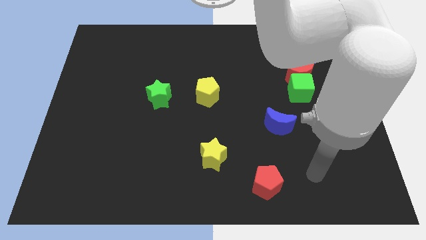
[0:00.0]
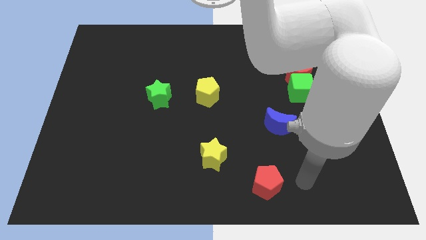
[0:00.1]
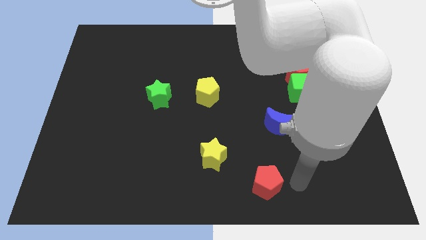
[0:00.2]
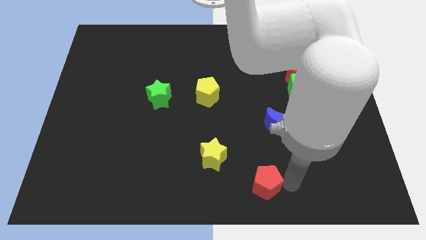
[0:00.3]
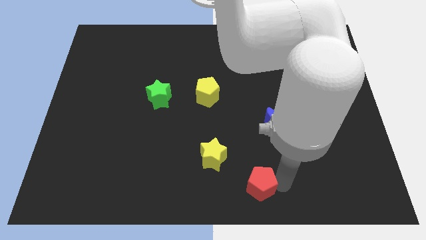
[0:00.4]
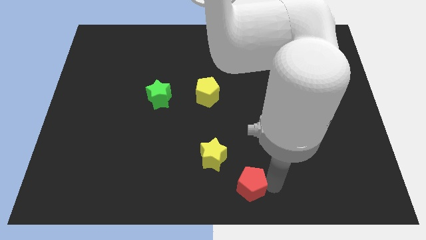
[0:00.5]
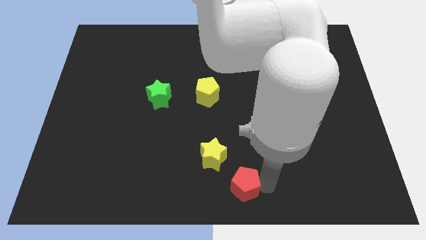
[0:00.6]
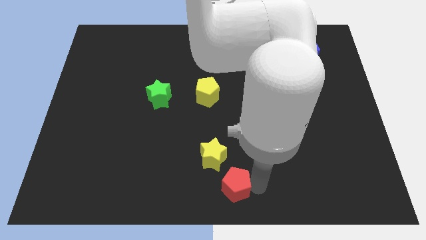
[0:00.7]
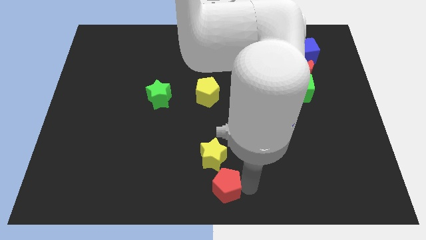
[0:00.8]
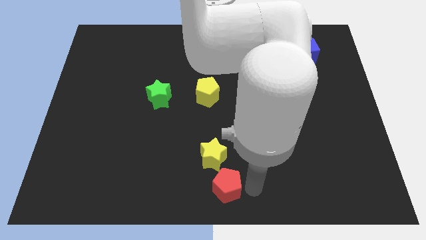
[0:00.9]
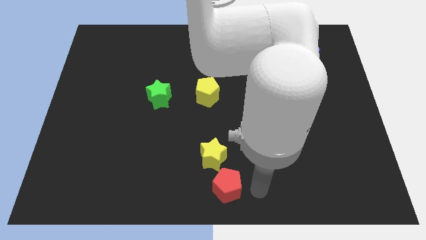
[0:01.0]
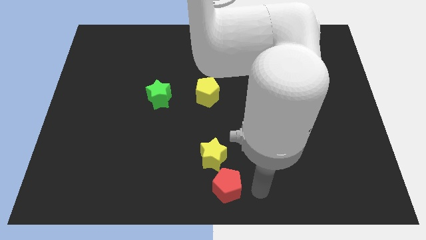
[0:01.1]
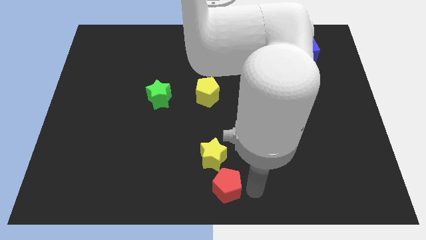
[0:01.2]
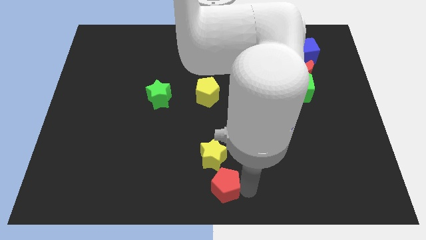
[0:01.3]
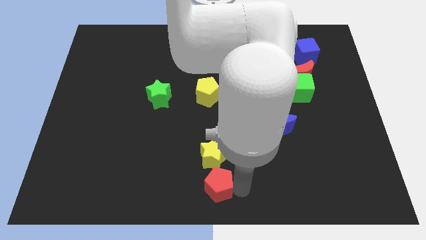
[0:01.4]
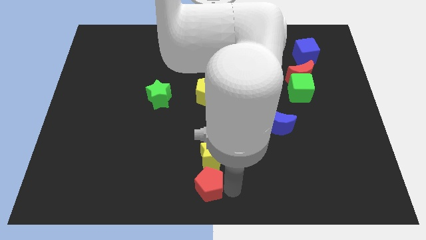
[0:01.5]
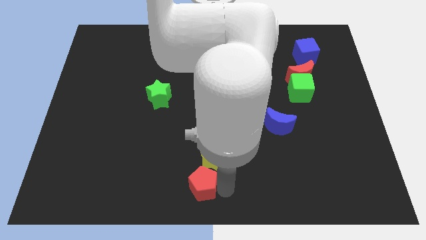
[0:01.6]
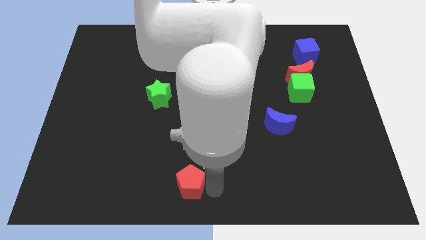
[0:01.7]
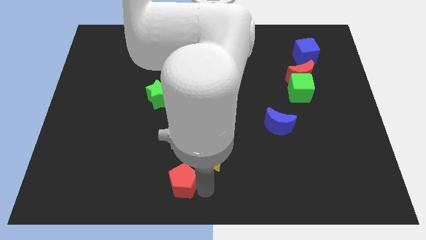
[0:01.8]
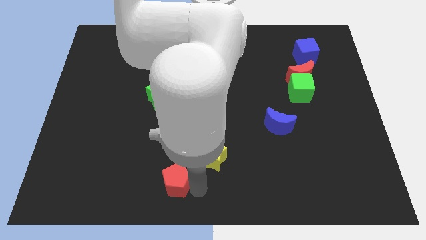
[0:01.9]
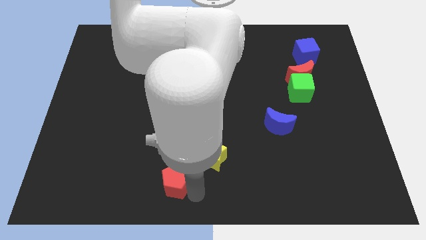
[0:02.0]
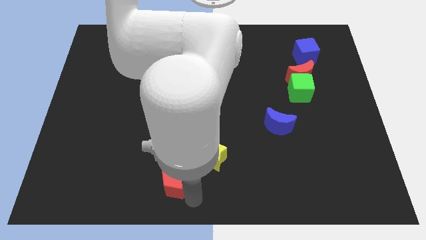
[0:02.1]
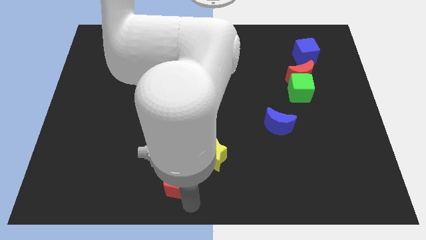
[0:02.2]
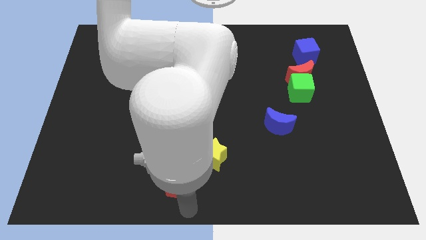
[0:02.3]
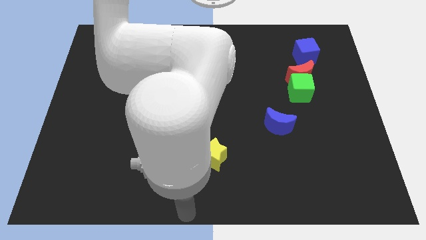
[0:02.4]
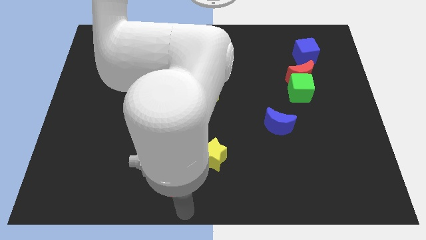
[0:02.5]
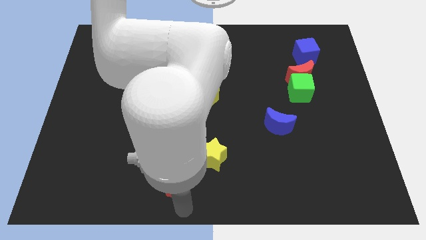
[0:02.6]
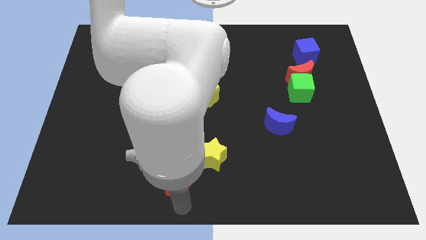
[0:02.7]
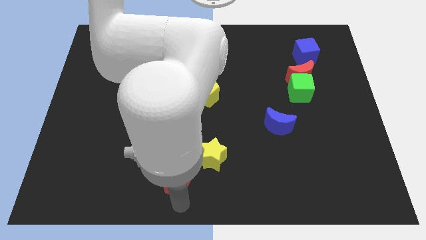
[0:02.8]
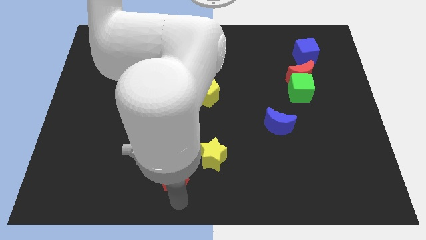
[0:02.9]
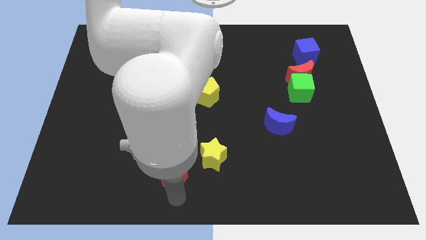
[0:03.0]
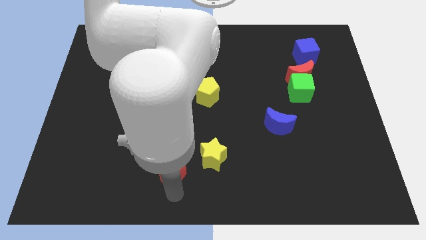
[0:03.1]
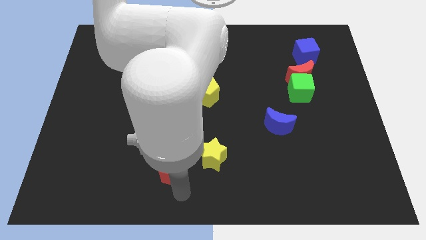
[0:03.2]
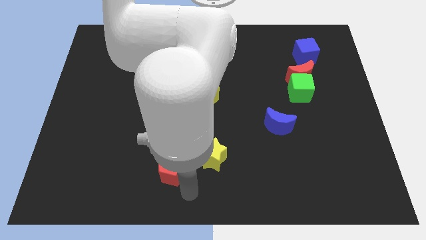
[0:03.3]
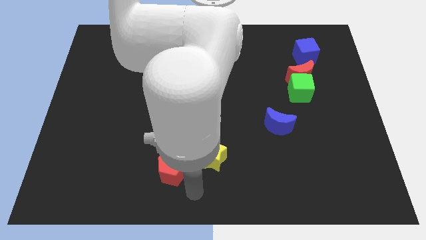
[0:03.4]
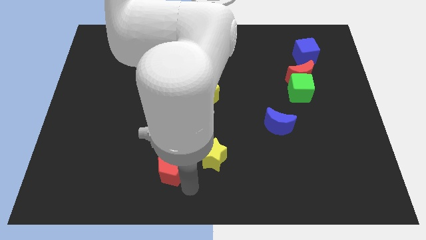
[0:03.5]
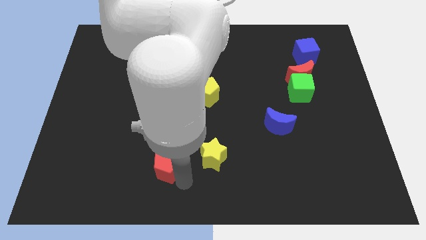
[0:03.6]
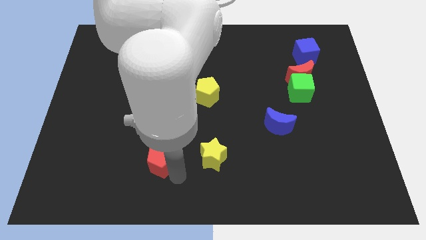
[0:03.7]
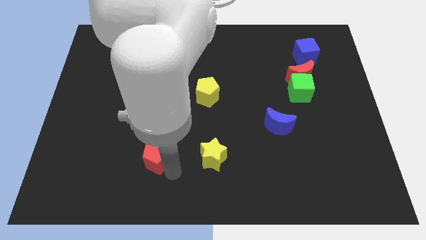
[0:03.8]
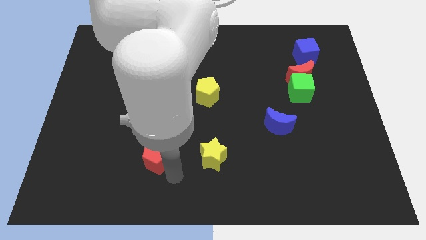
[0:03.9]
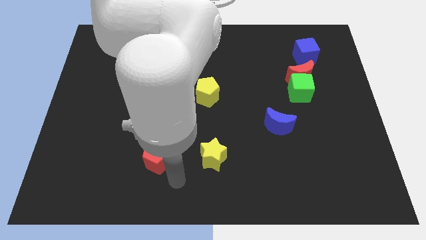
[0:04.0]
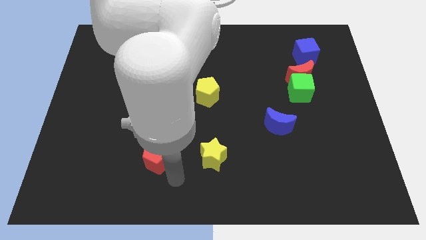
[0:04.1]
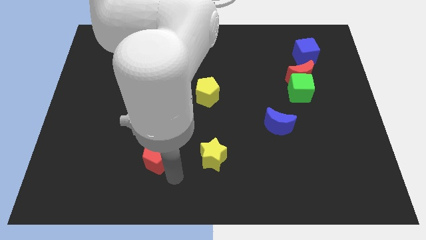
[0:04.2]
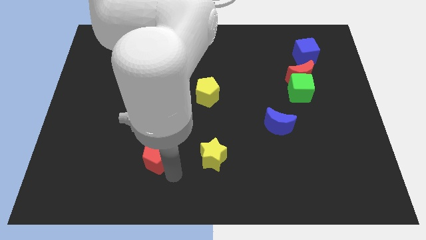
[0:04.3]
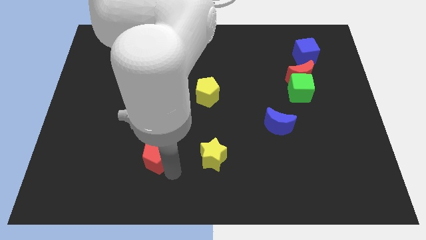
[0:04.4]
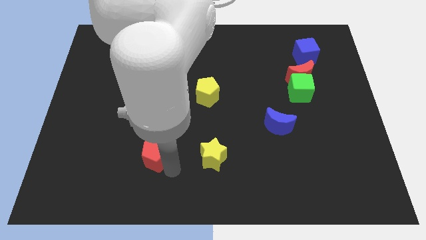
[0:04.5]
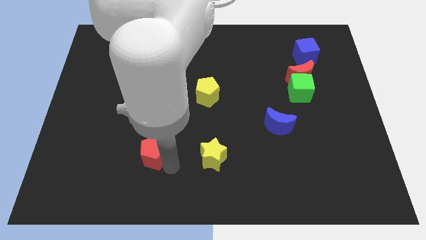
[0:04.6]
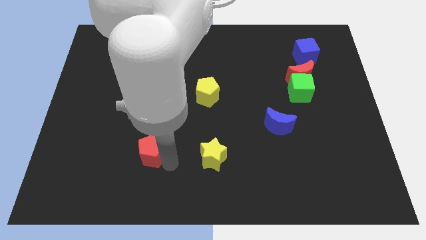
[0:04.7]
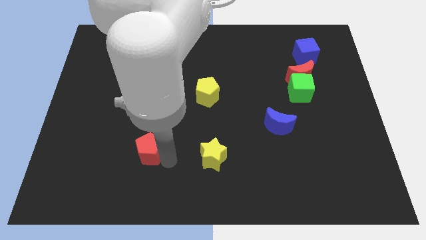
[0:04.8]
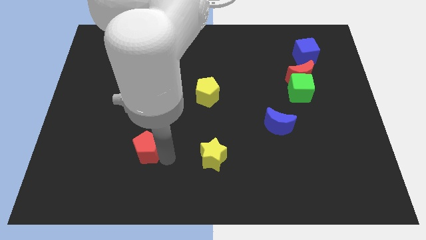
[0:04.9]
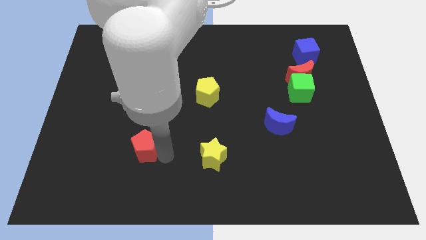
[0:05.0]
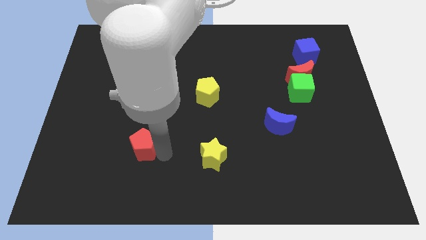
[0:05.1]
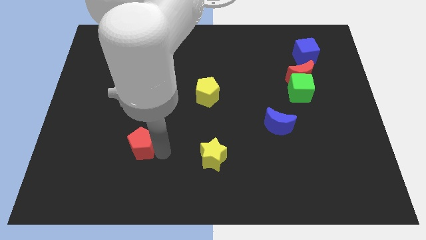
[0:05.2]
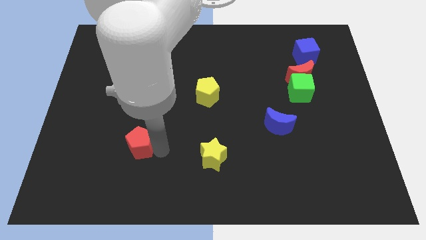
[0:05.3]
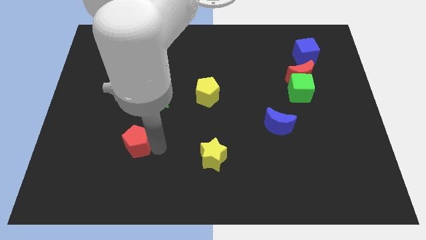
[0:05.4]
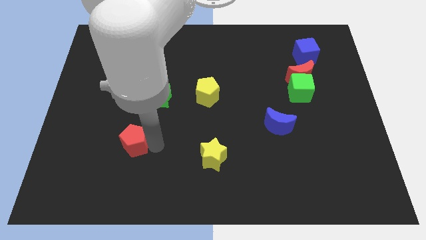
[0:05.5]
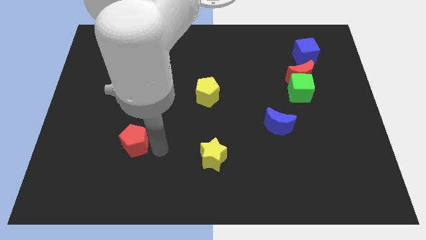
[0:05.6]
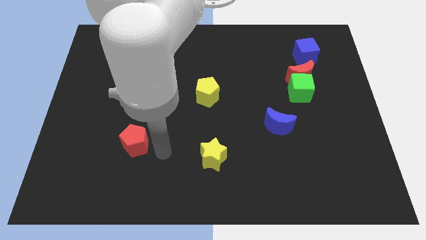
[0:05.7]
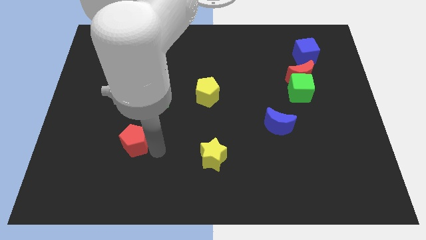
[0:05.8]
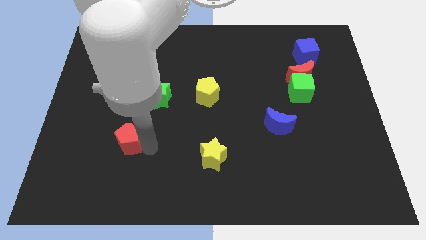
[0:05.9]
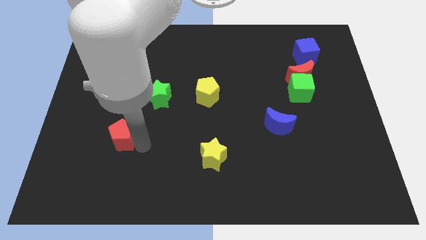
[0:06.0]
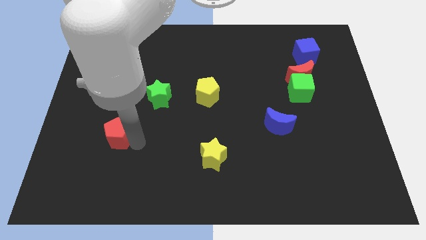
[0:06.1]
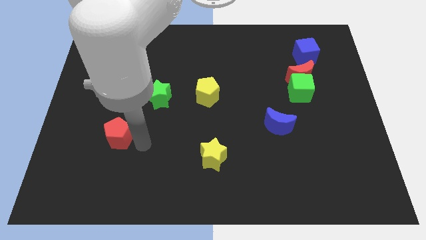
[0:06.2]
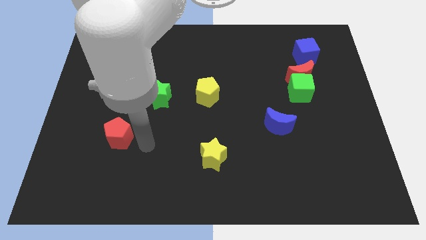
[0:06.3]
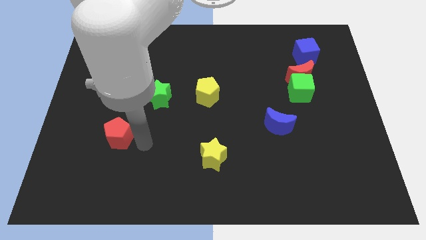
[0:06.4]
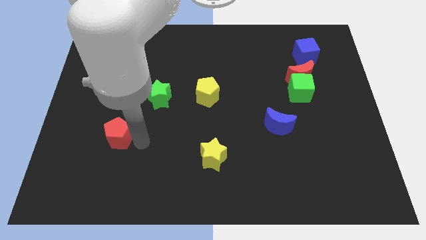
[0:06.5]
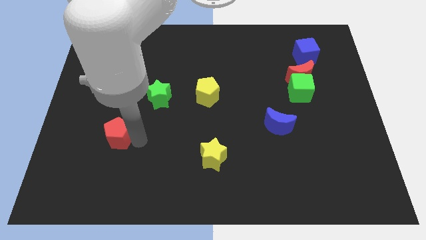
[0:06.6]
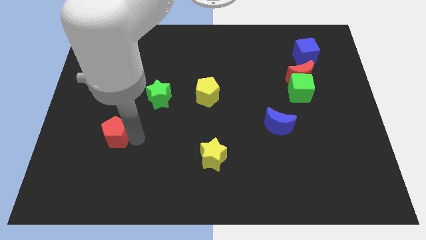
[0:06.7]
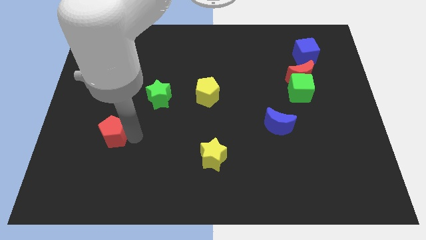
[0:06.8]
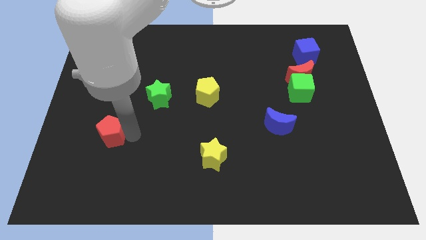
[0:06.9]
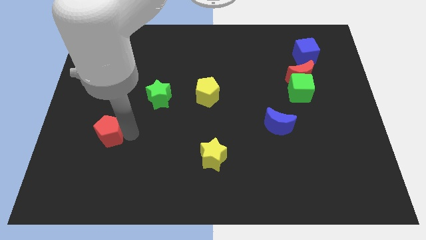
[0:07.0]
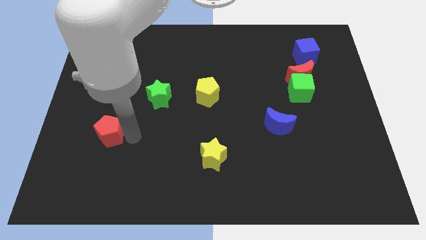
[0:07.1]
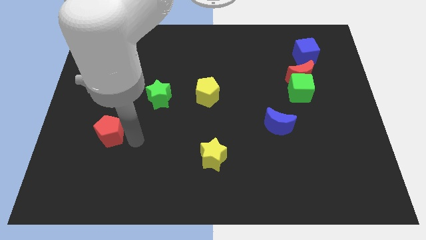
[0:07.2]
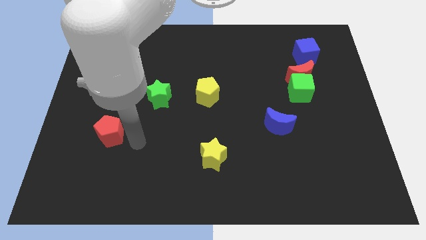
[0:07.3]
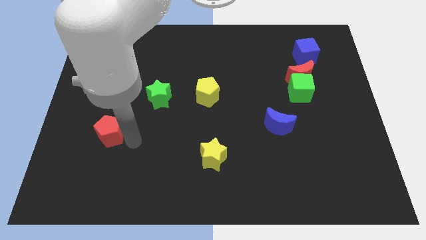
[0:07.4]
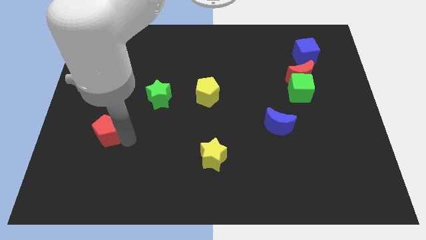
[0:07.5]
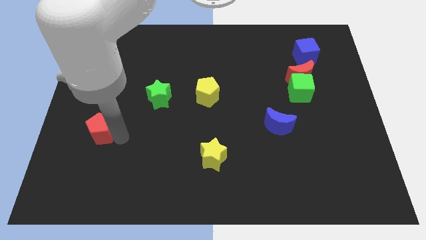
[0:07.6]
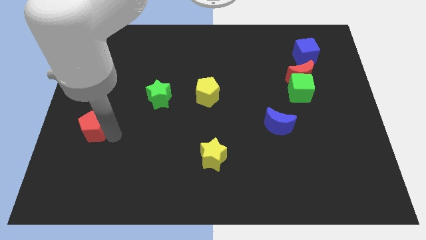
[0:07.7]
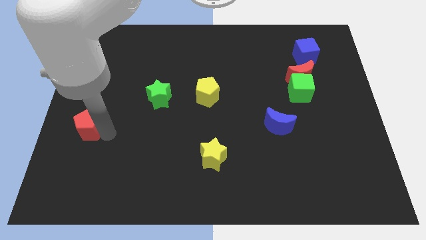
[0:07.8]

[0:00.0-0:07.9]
push the red pentagon to the center left
